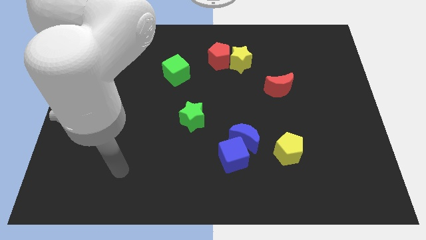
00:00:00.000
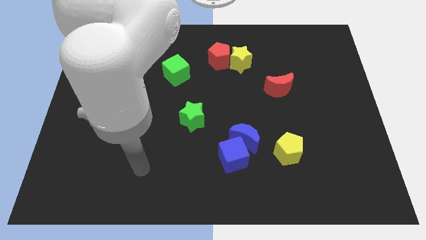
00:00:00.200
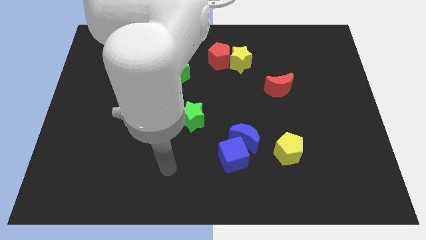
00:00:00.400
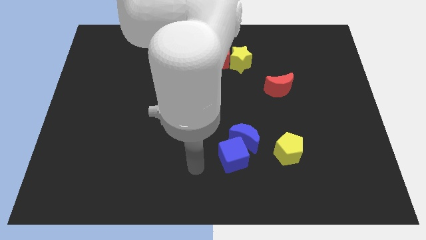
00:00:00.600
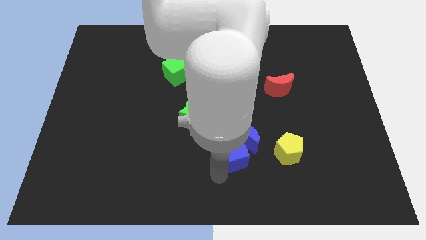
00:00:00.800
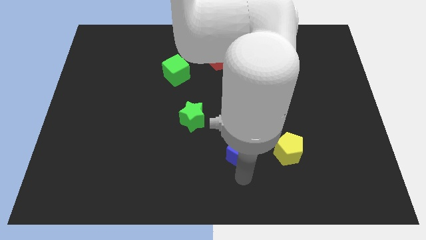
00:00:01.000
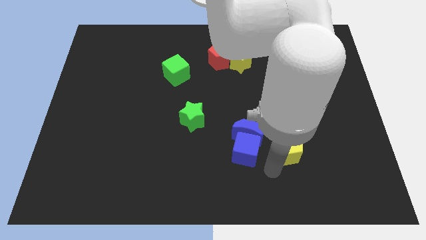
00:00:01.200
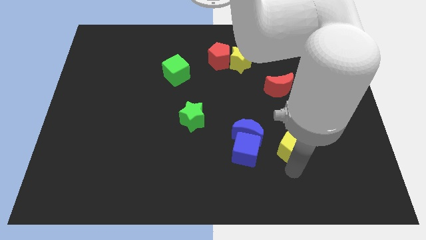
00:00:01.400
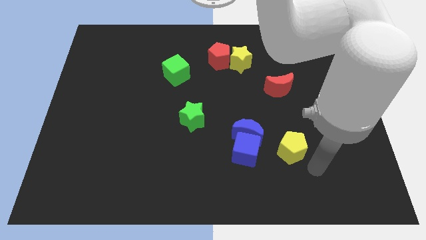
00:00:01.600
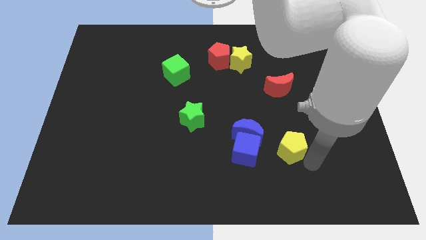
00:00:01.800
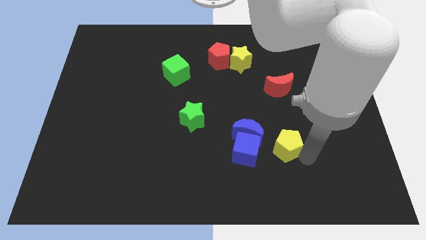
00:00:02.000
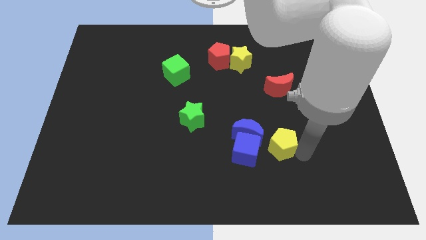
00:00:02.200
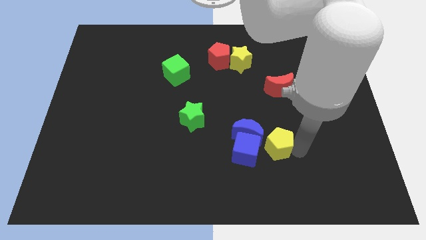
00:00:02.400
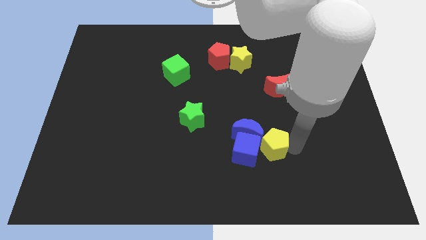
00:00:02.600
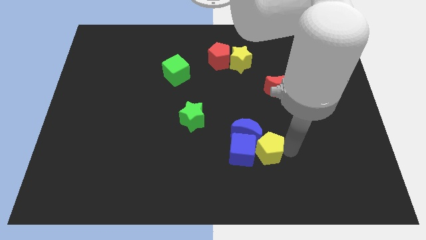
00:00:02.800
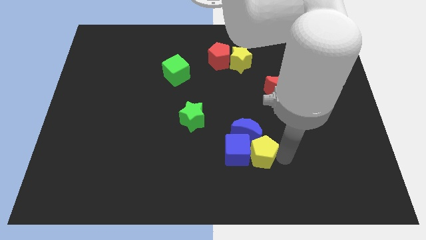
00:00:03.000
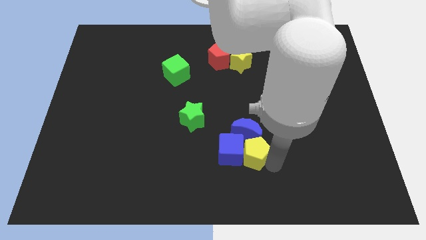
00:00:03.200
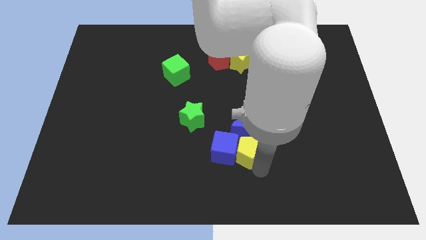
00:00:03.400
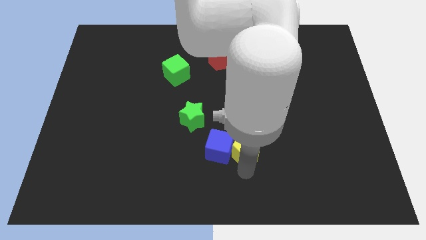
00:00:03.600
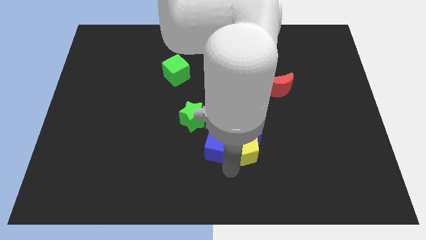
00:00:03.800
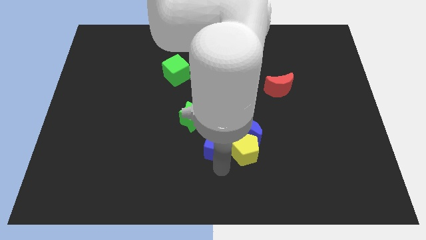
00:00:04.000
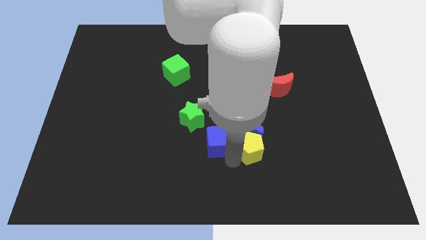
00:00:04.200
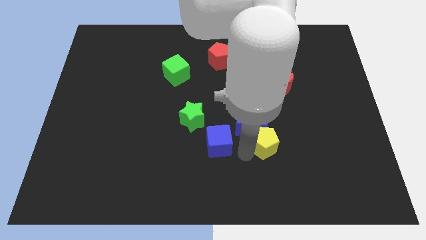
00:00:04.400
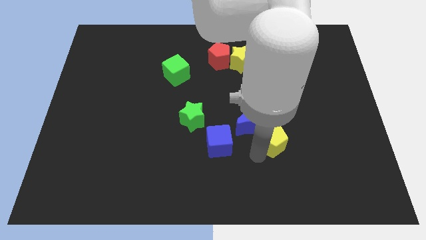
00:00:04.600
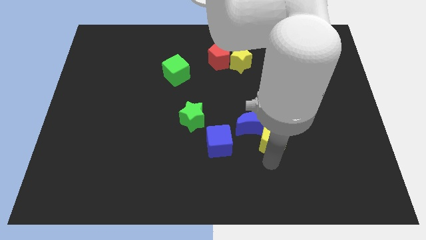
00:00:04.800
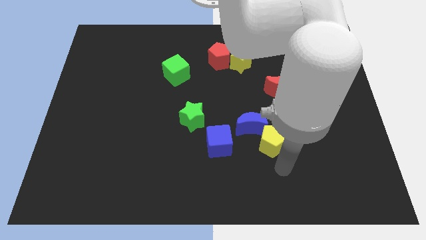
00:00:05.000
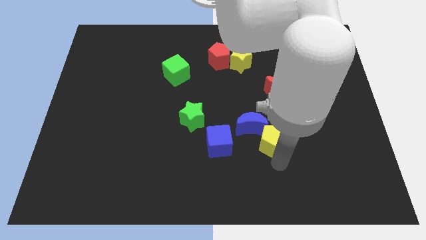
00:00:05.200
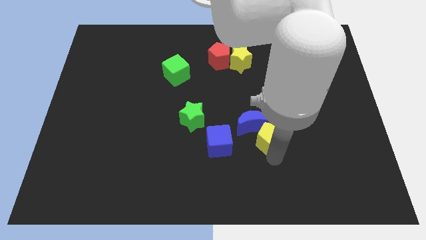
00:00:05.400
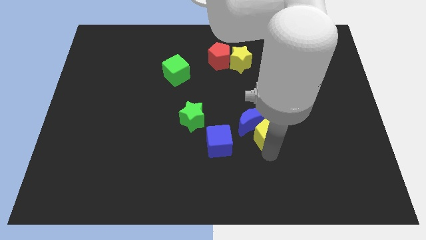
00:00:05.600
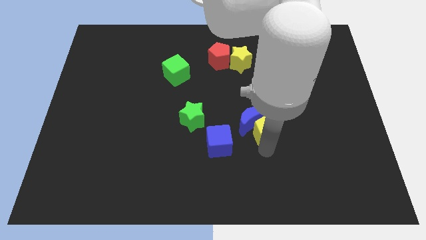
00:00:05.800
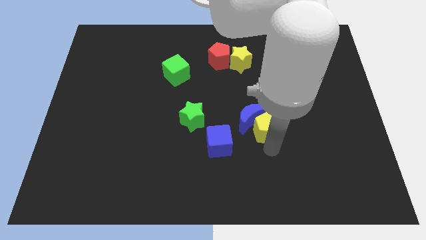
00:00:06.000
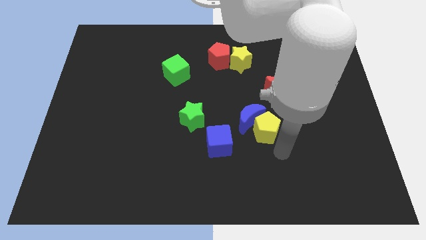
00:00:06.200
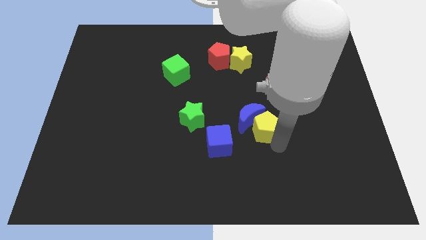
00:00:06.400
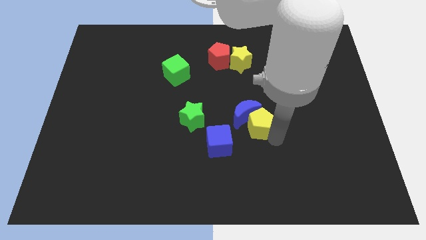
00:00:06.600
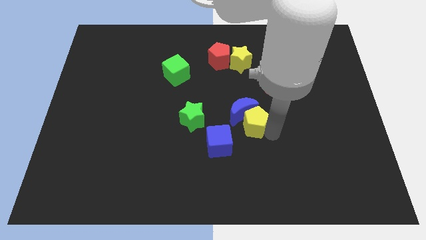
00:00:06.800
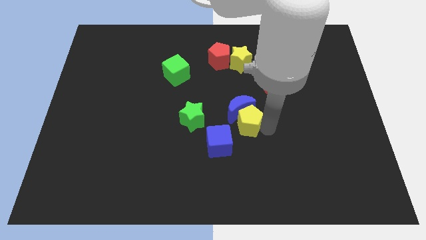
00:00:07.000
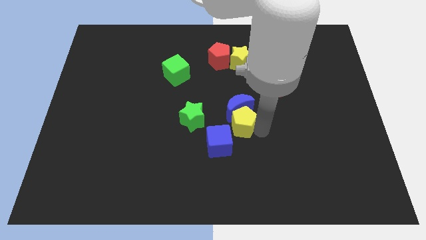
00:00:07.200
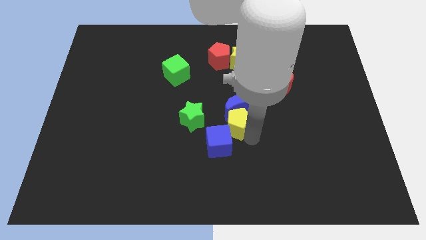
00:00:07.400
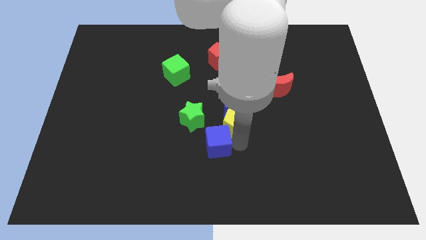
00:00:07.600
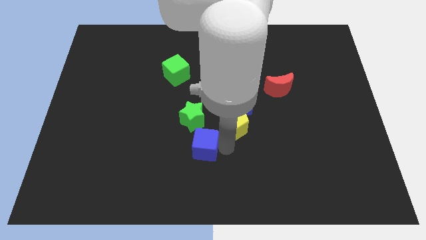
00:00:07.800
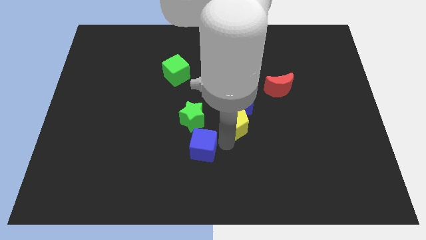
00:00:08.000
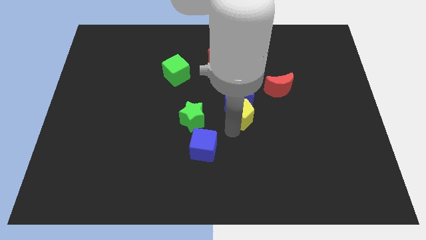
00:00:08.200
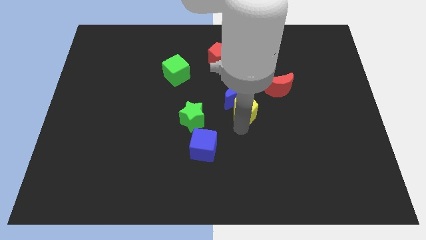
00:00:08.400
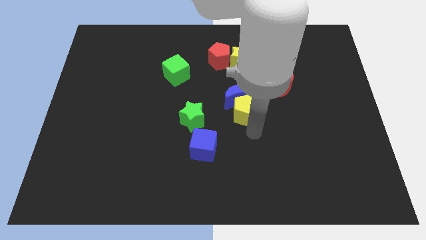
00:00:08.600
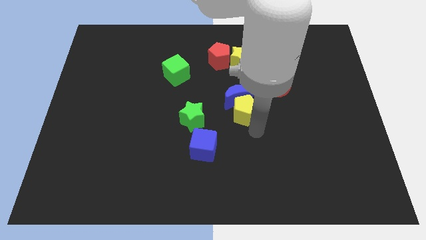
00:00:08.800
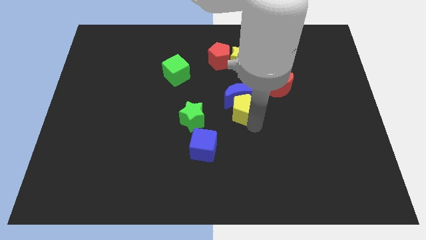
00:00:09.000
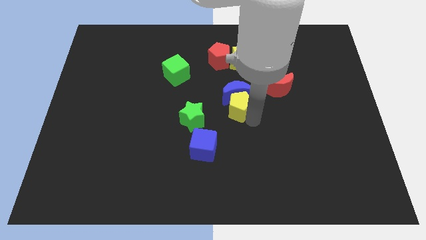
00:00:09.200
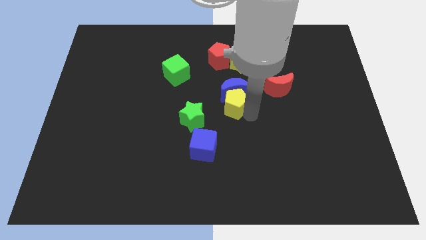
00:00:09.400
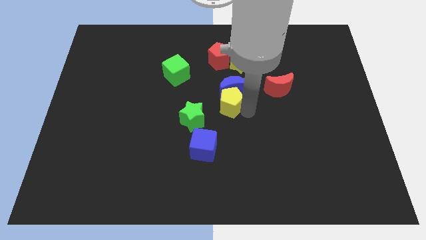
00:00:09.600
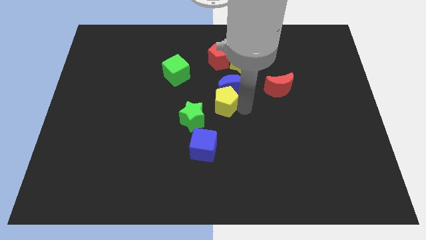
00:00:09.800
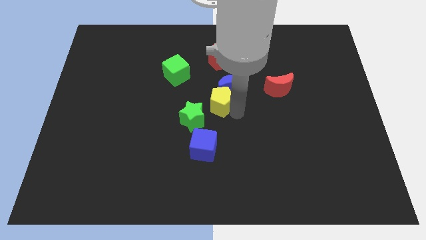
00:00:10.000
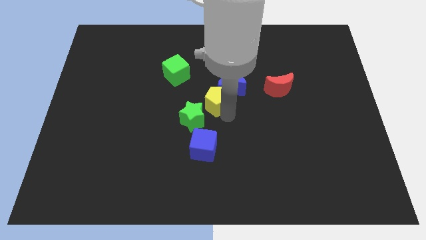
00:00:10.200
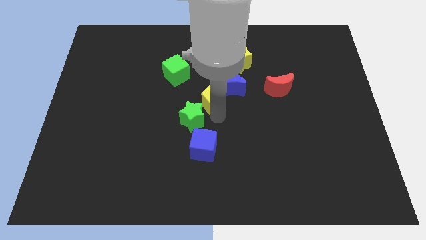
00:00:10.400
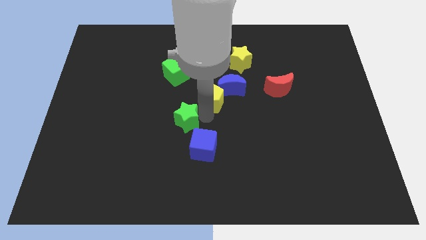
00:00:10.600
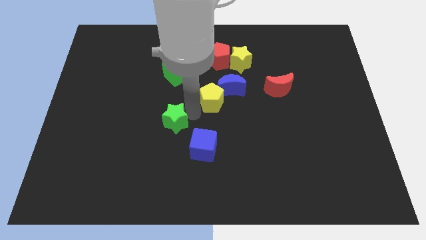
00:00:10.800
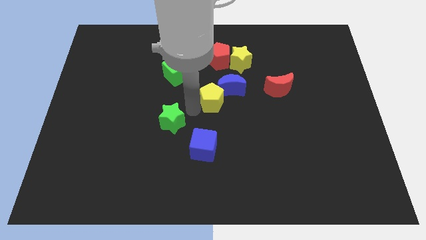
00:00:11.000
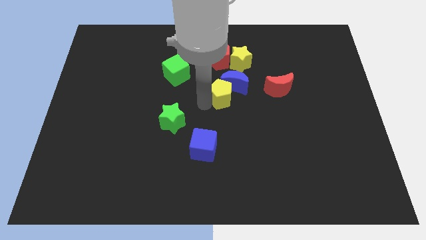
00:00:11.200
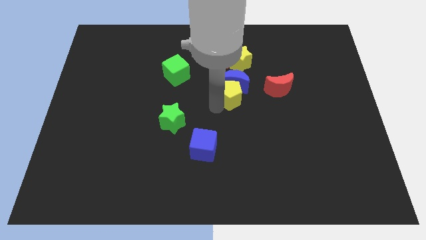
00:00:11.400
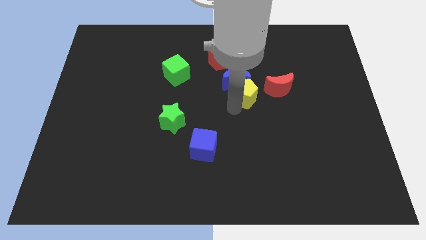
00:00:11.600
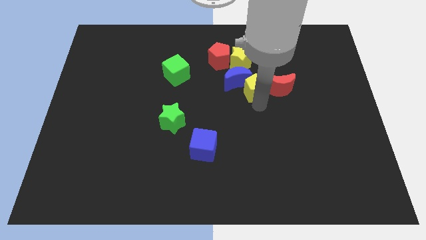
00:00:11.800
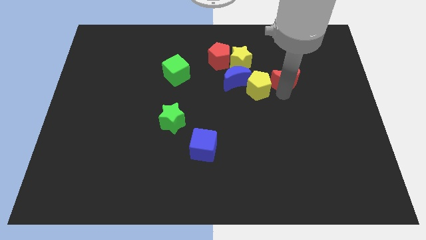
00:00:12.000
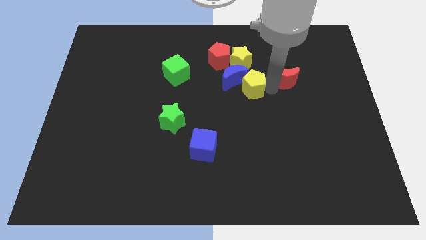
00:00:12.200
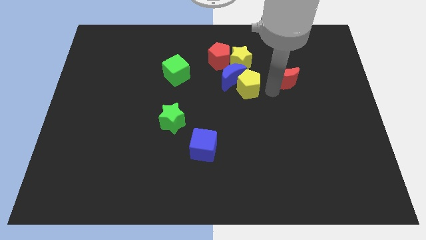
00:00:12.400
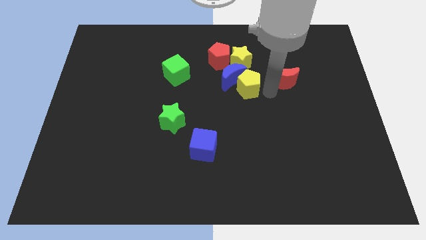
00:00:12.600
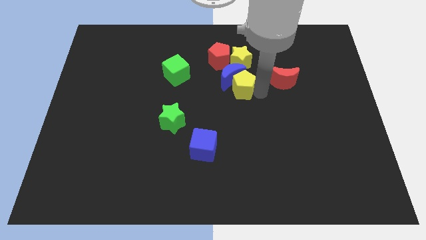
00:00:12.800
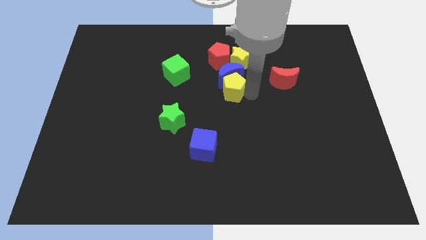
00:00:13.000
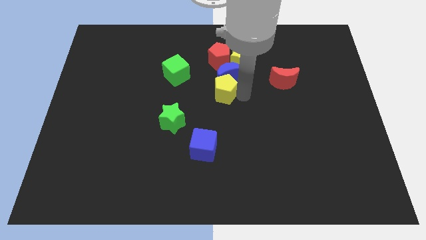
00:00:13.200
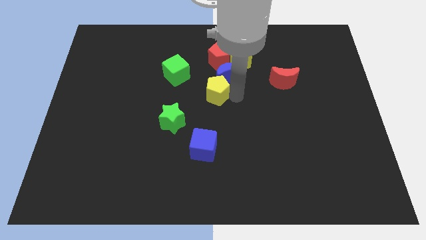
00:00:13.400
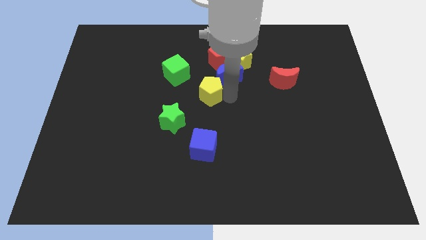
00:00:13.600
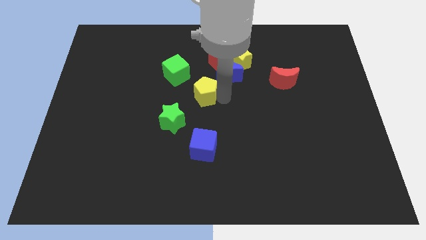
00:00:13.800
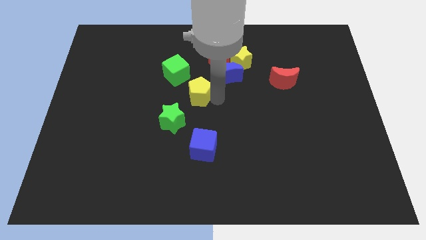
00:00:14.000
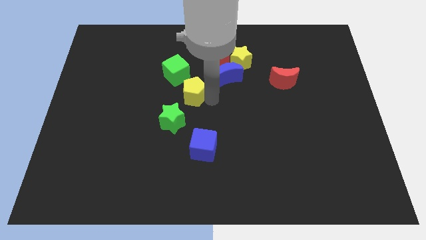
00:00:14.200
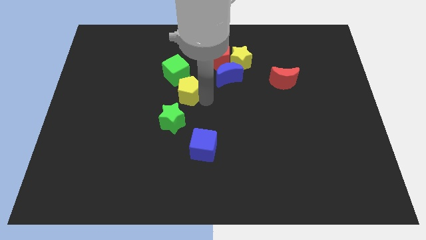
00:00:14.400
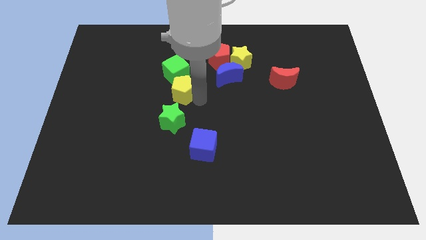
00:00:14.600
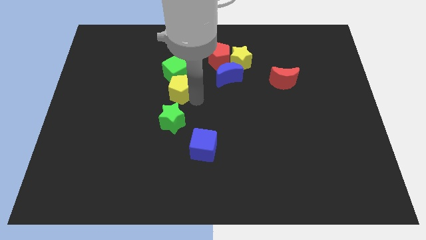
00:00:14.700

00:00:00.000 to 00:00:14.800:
put the yellow pentagon to the green cube
